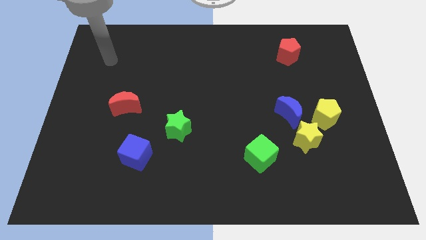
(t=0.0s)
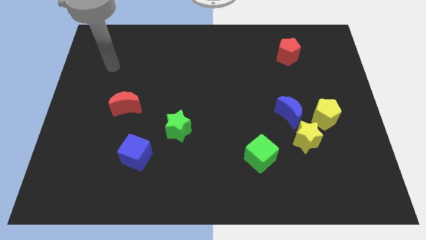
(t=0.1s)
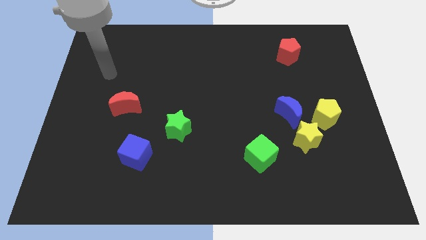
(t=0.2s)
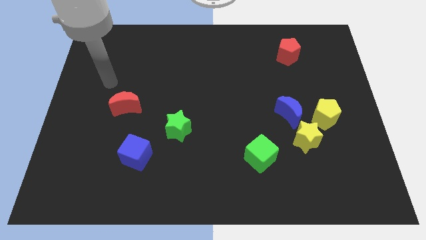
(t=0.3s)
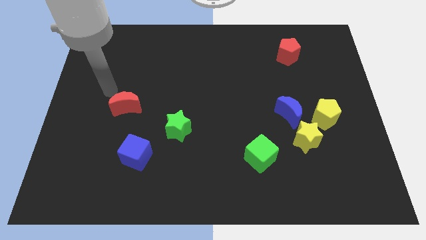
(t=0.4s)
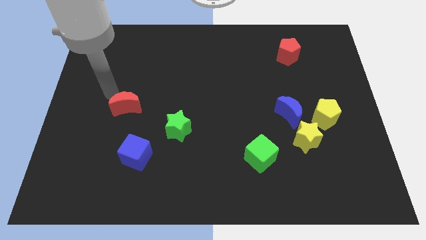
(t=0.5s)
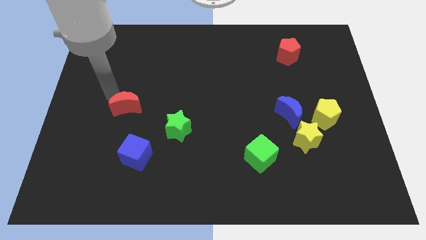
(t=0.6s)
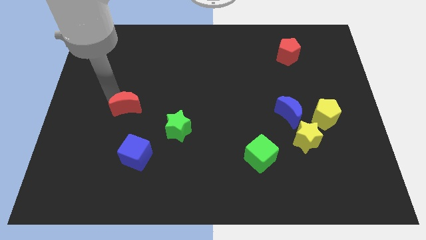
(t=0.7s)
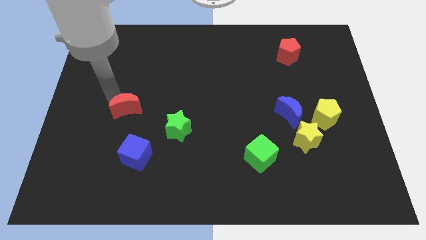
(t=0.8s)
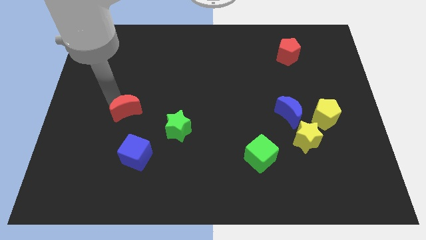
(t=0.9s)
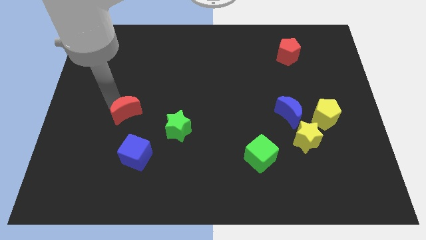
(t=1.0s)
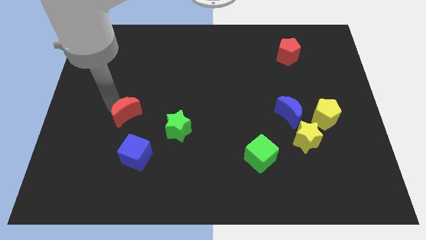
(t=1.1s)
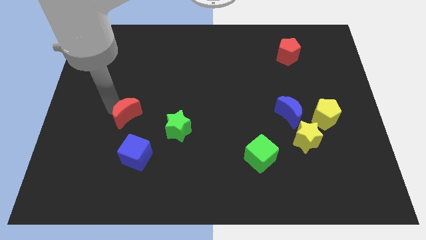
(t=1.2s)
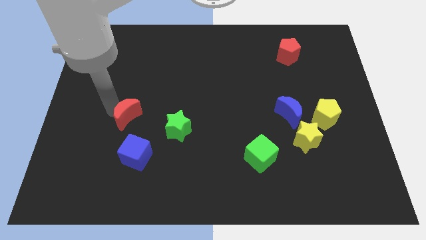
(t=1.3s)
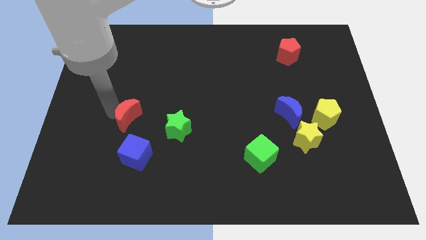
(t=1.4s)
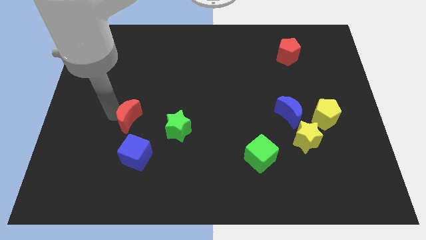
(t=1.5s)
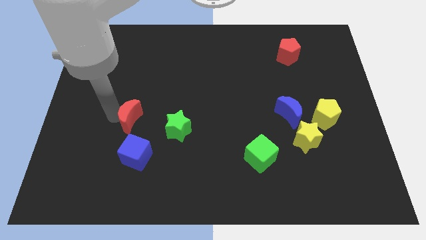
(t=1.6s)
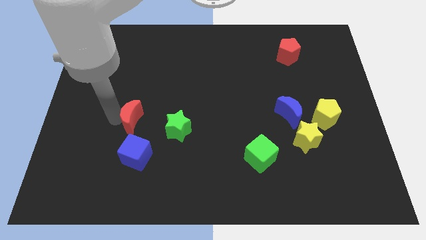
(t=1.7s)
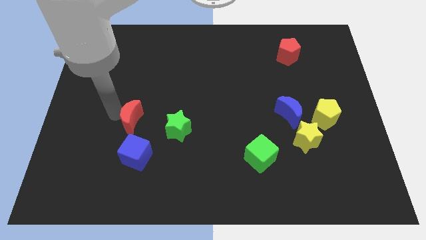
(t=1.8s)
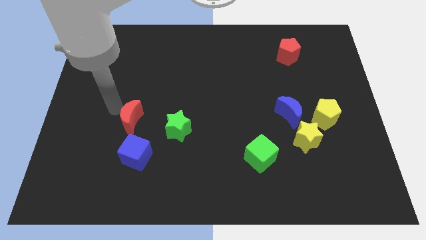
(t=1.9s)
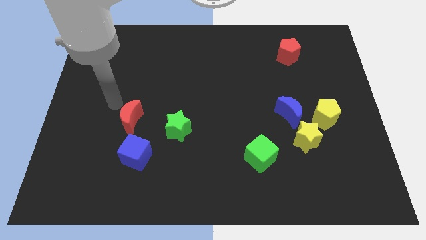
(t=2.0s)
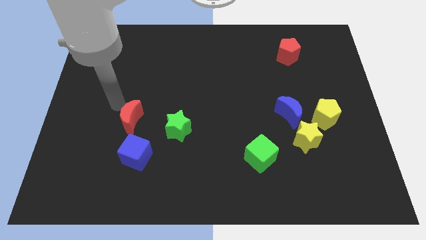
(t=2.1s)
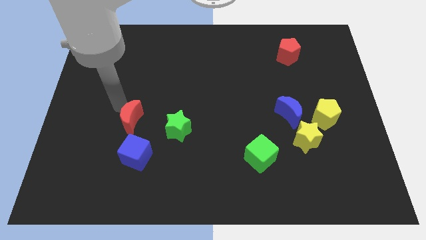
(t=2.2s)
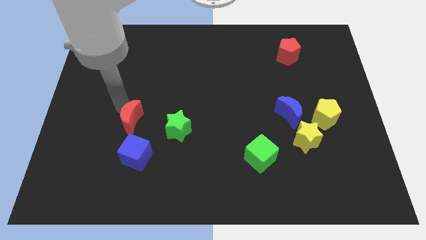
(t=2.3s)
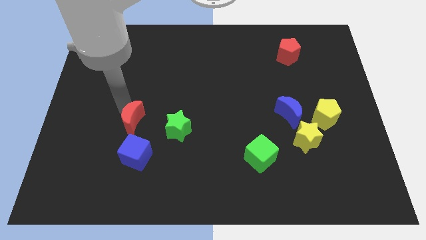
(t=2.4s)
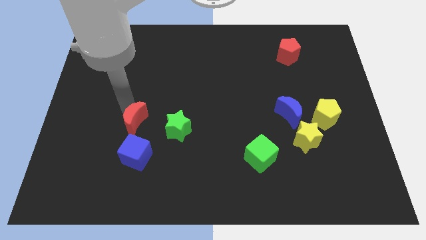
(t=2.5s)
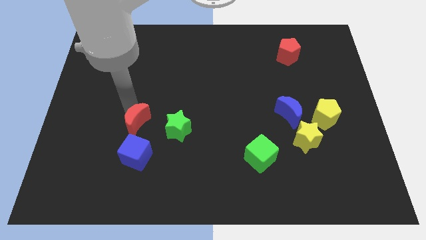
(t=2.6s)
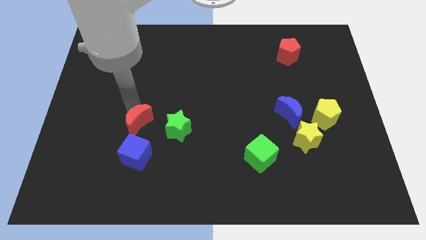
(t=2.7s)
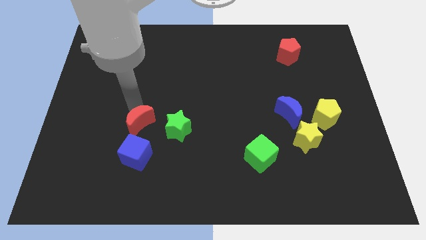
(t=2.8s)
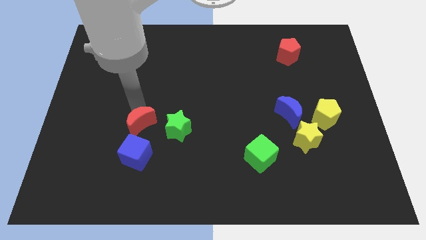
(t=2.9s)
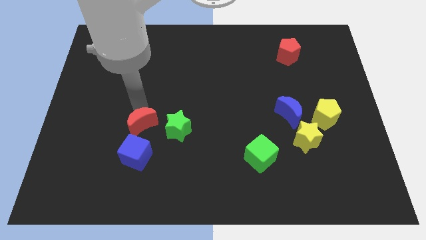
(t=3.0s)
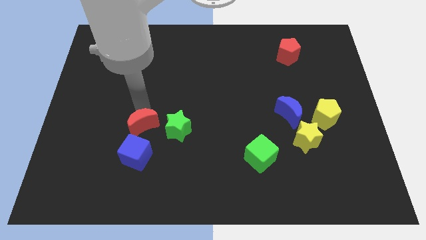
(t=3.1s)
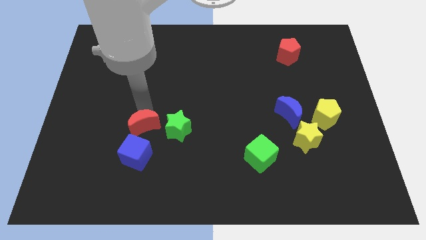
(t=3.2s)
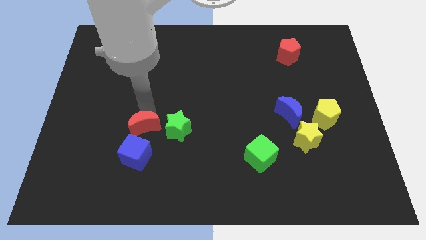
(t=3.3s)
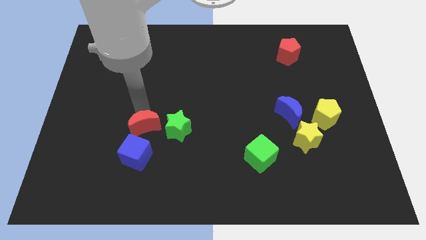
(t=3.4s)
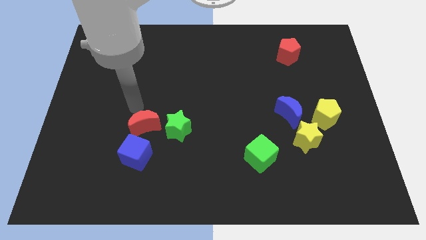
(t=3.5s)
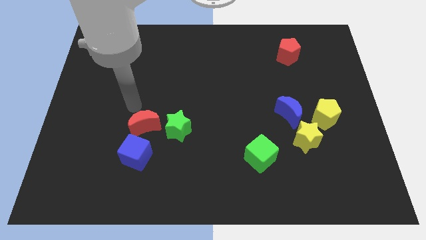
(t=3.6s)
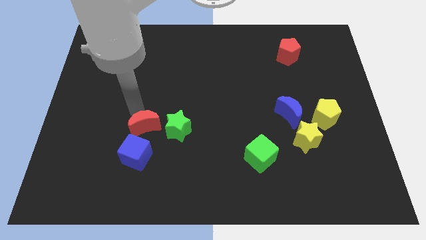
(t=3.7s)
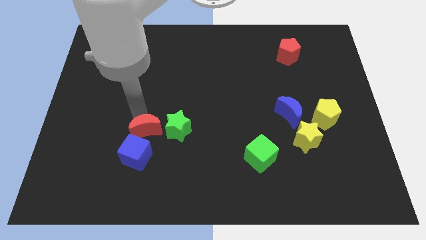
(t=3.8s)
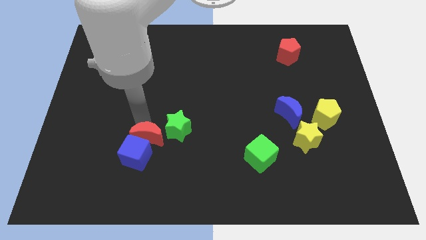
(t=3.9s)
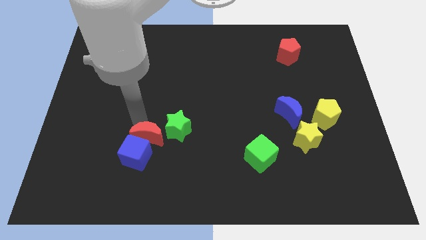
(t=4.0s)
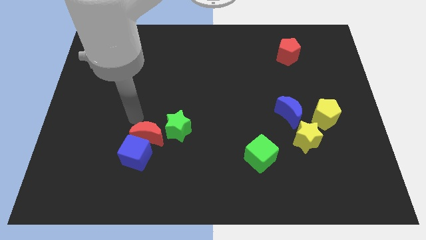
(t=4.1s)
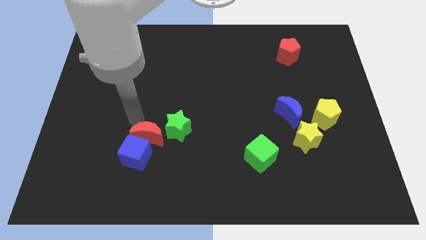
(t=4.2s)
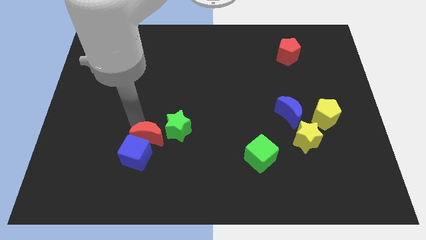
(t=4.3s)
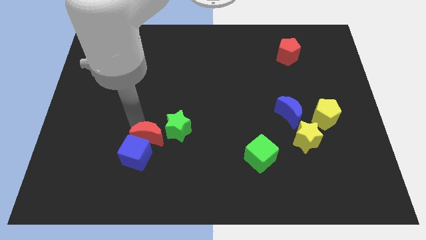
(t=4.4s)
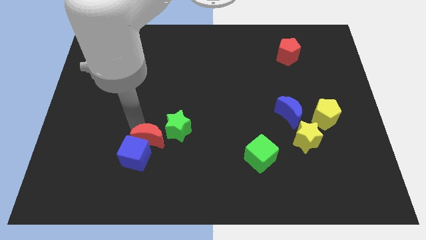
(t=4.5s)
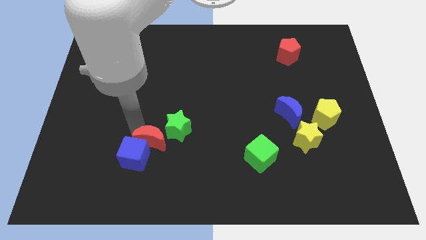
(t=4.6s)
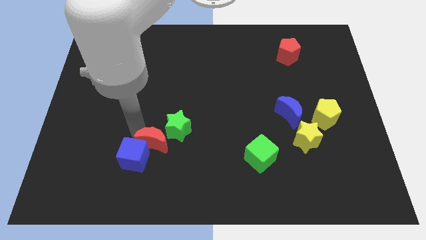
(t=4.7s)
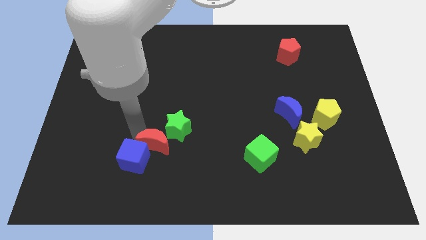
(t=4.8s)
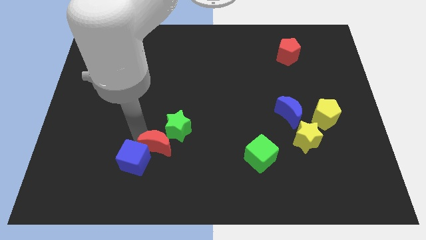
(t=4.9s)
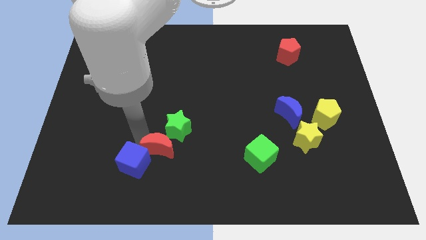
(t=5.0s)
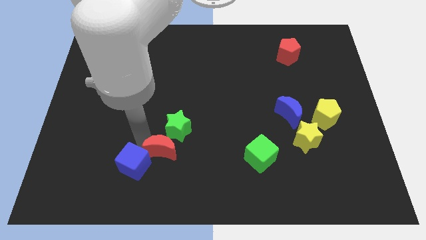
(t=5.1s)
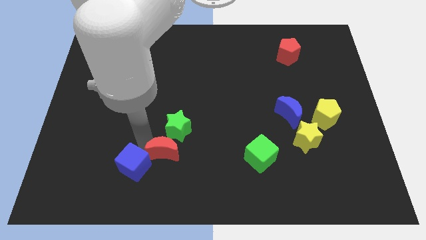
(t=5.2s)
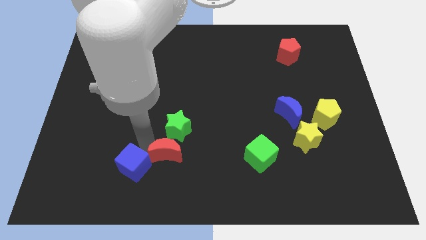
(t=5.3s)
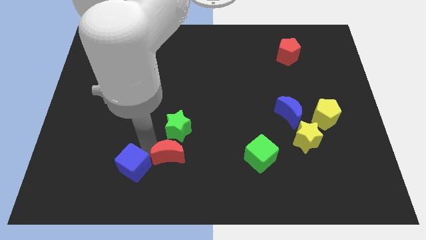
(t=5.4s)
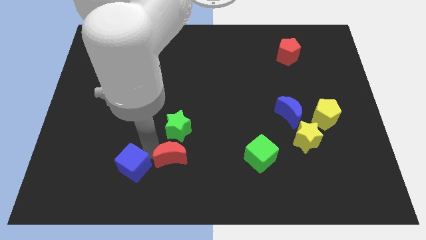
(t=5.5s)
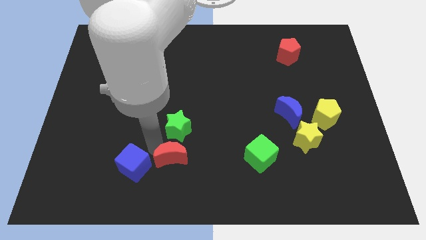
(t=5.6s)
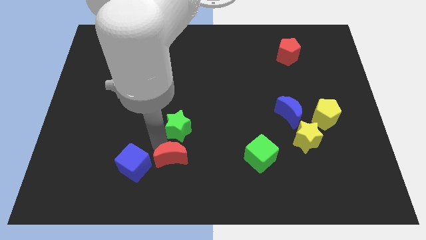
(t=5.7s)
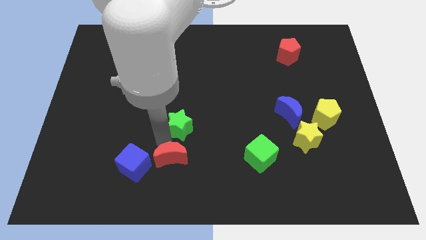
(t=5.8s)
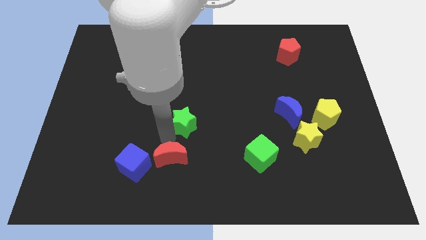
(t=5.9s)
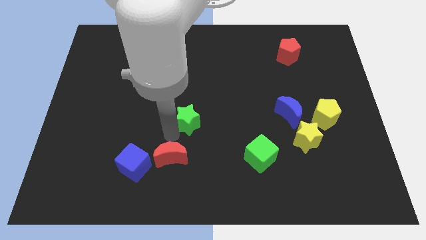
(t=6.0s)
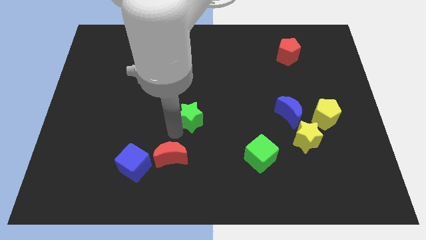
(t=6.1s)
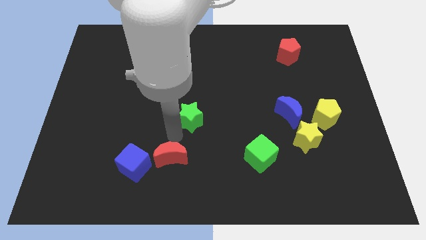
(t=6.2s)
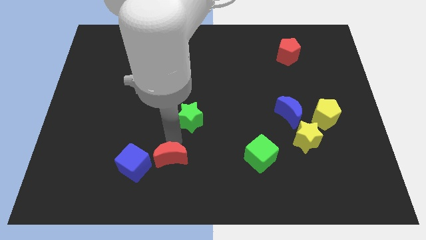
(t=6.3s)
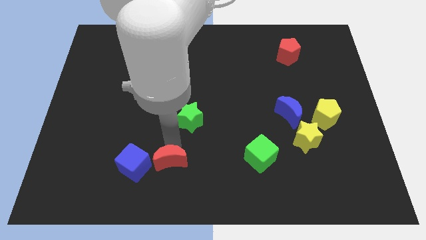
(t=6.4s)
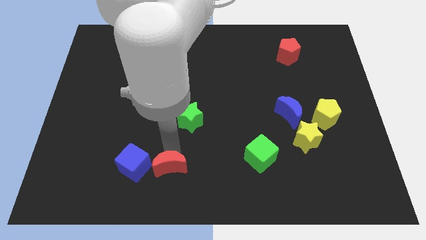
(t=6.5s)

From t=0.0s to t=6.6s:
push the red moon to the bottom side

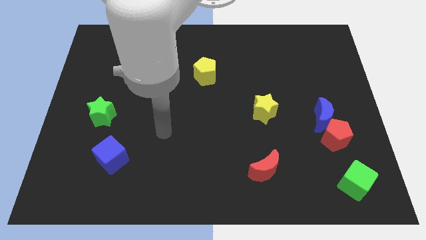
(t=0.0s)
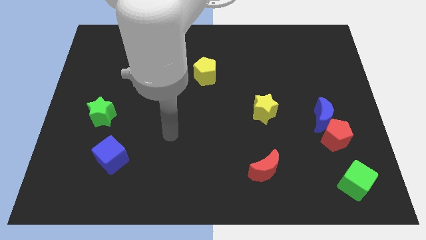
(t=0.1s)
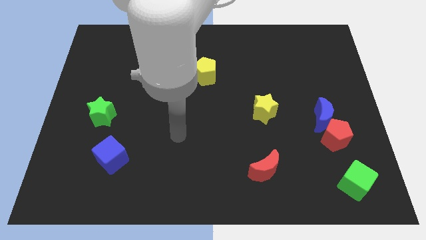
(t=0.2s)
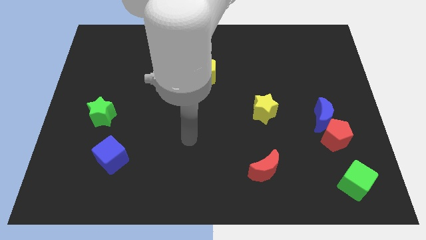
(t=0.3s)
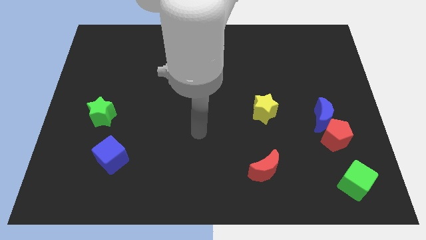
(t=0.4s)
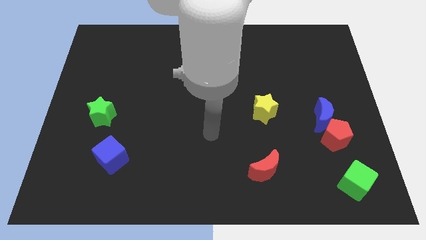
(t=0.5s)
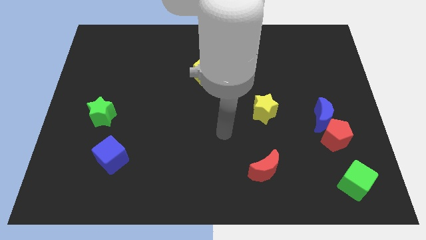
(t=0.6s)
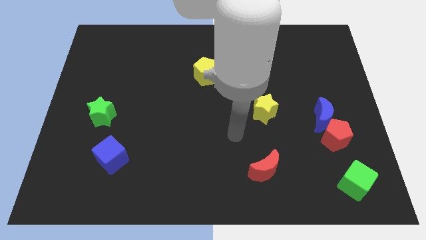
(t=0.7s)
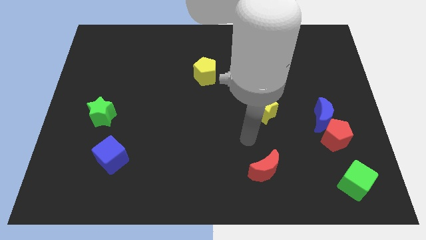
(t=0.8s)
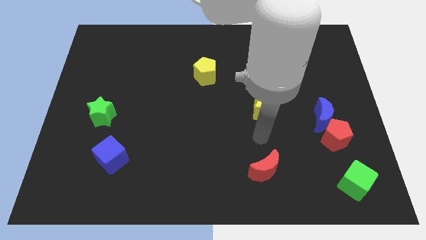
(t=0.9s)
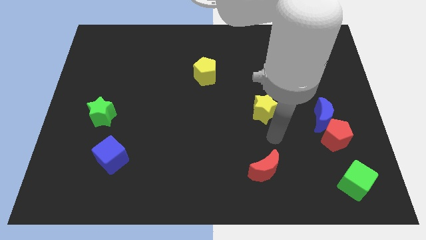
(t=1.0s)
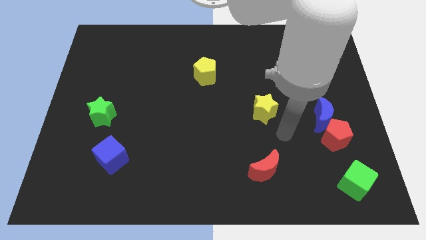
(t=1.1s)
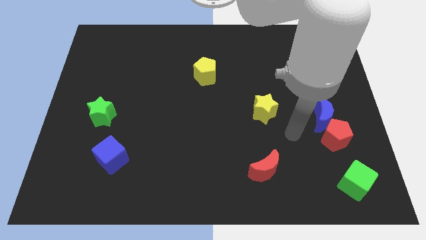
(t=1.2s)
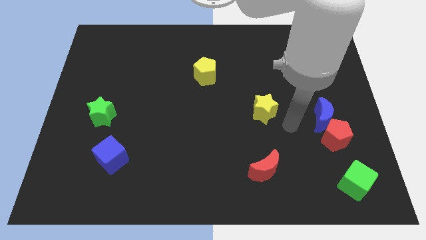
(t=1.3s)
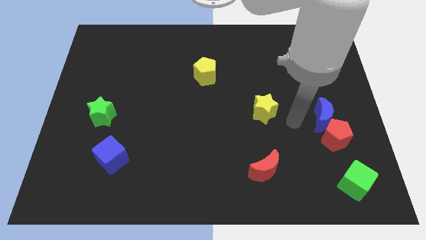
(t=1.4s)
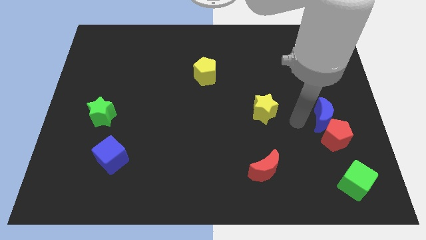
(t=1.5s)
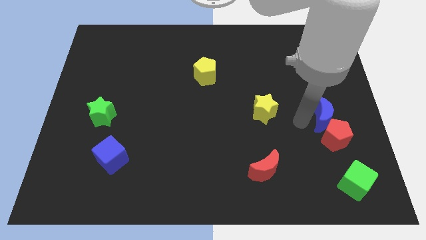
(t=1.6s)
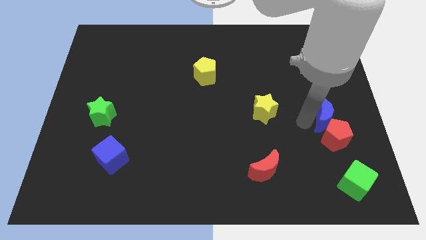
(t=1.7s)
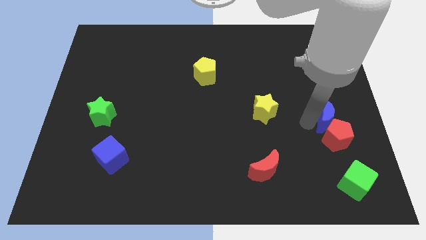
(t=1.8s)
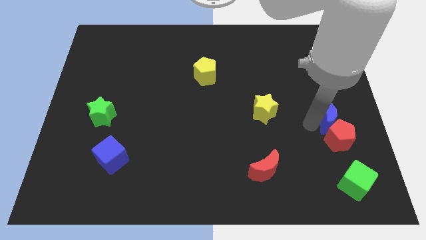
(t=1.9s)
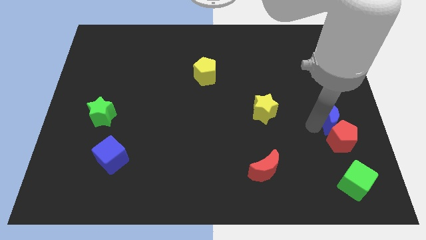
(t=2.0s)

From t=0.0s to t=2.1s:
move the blue moon to the right side
